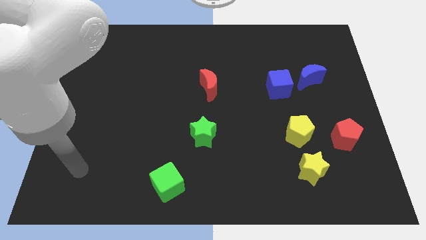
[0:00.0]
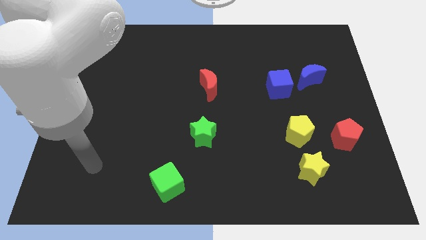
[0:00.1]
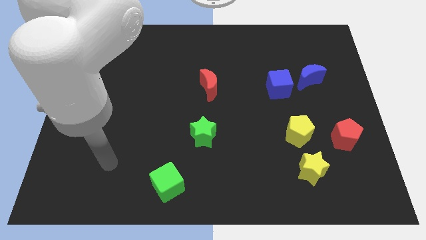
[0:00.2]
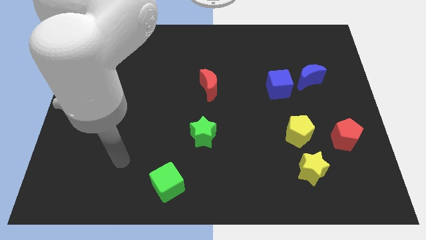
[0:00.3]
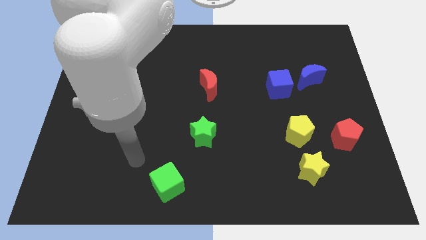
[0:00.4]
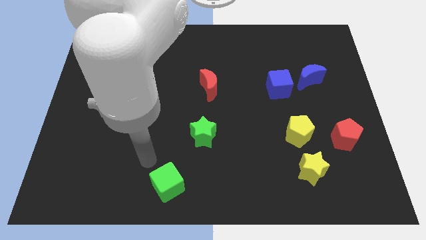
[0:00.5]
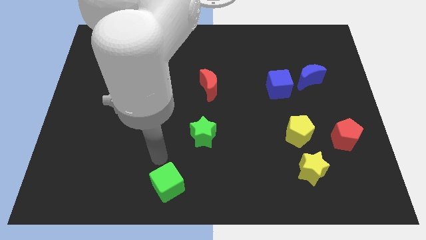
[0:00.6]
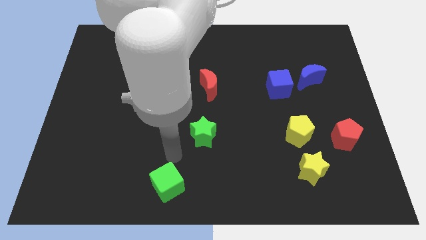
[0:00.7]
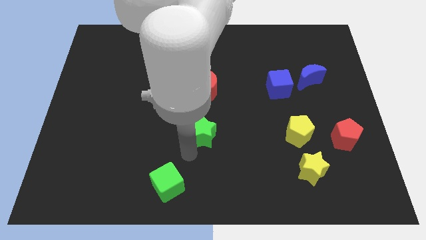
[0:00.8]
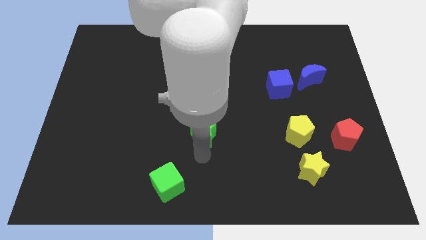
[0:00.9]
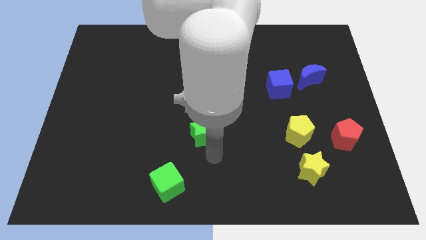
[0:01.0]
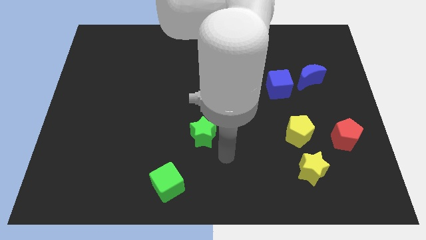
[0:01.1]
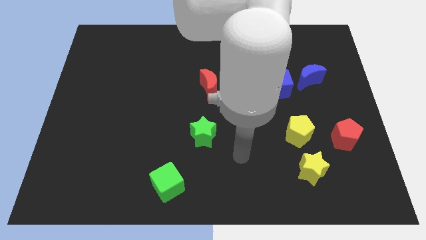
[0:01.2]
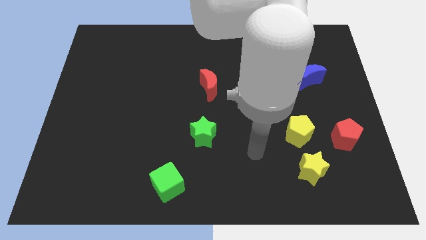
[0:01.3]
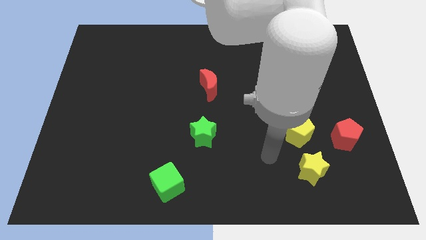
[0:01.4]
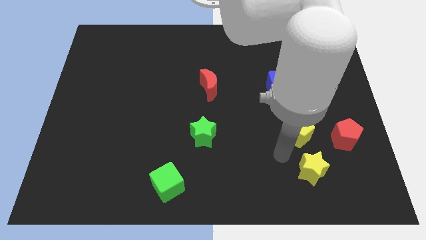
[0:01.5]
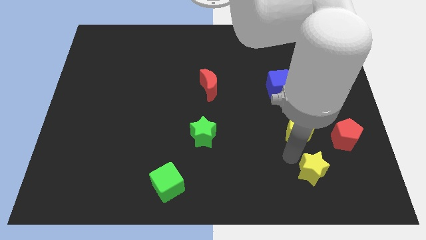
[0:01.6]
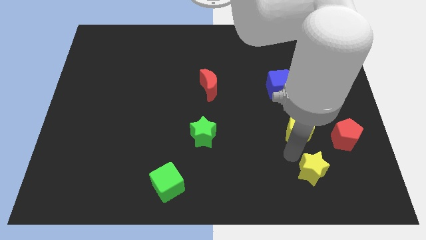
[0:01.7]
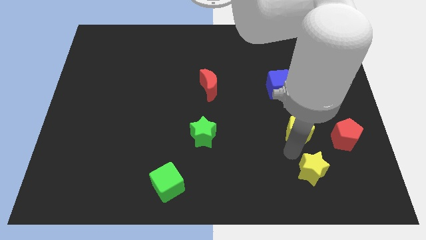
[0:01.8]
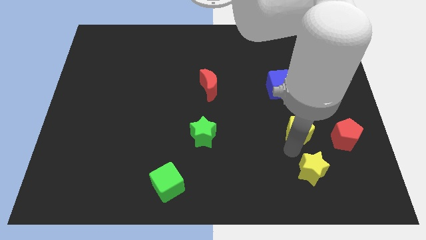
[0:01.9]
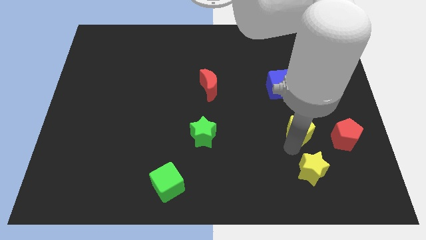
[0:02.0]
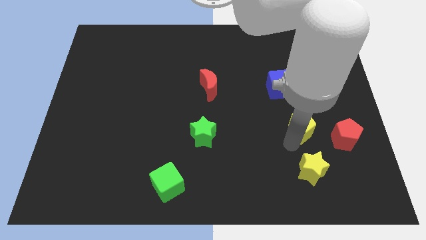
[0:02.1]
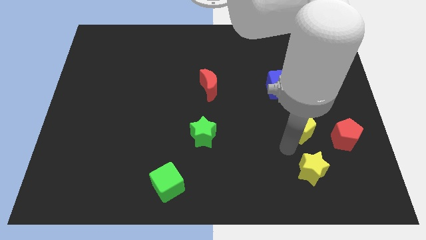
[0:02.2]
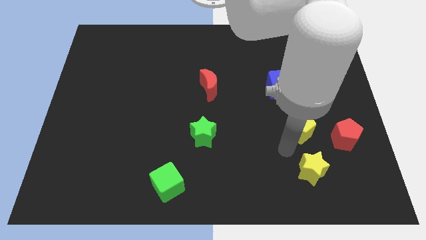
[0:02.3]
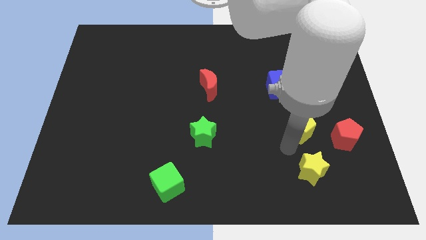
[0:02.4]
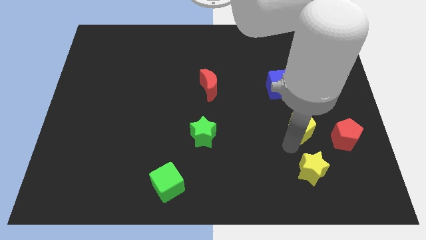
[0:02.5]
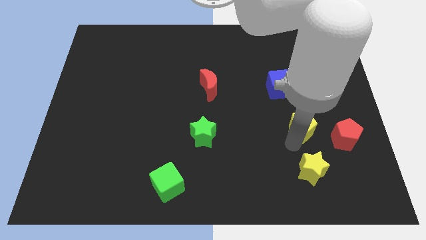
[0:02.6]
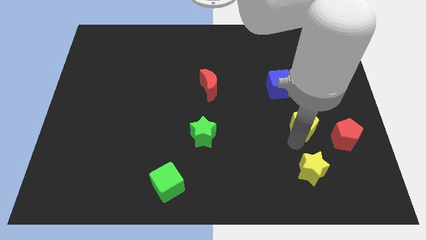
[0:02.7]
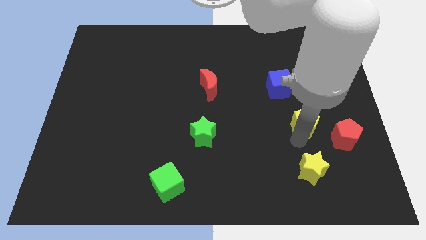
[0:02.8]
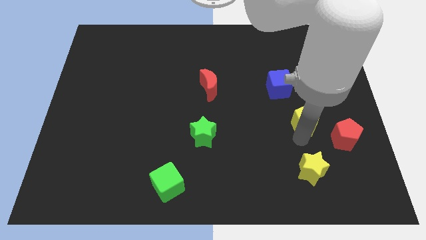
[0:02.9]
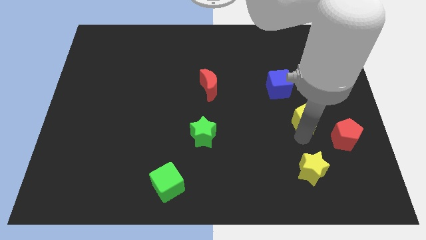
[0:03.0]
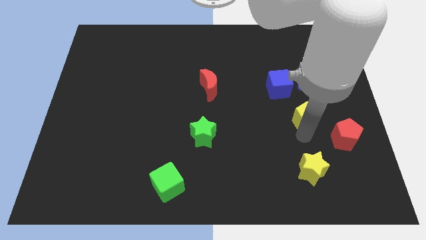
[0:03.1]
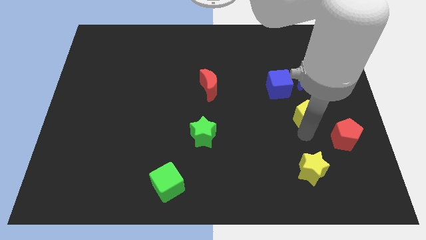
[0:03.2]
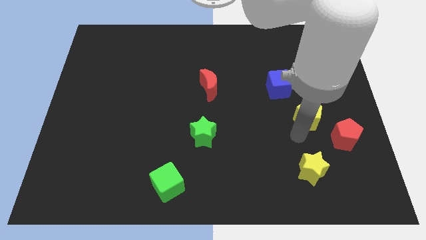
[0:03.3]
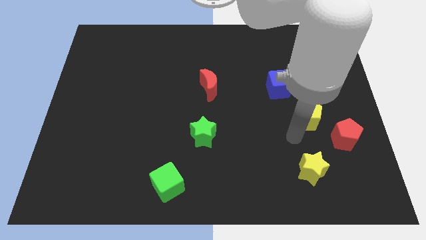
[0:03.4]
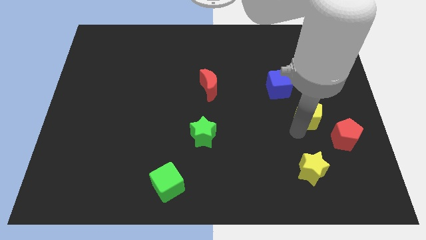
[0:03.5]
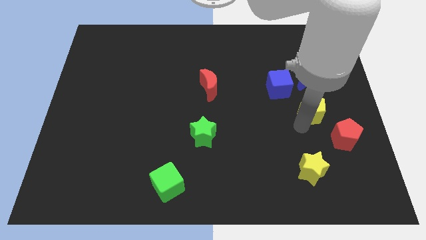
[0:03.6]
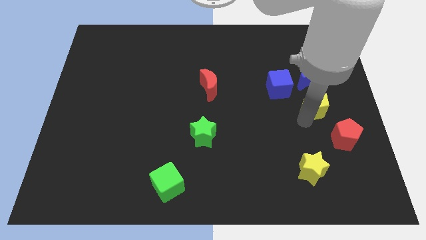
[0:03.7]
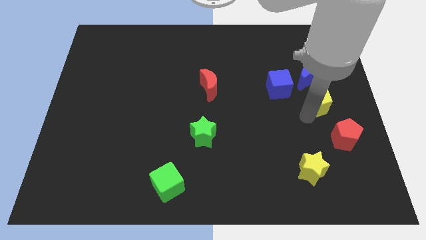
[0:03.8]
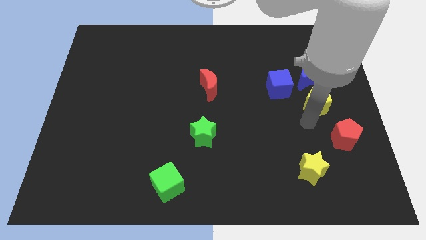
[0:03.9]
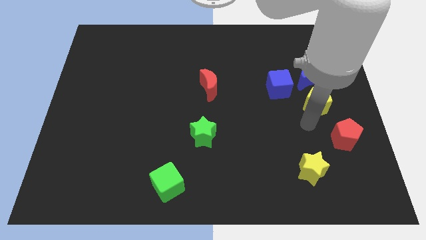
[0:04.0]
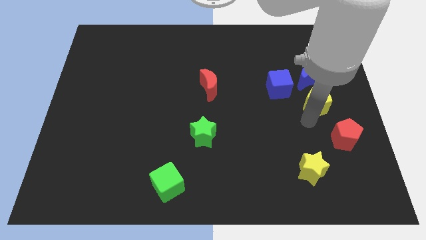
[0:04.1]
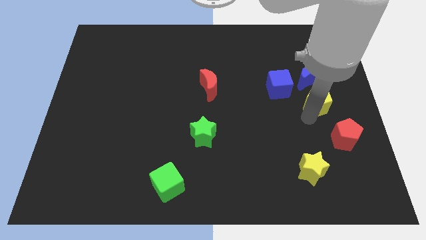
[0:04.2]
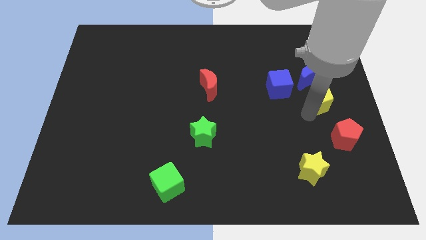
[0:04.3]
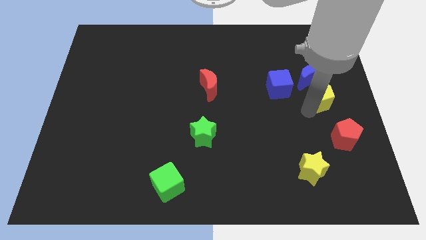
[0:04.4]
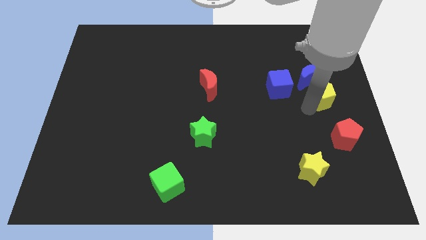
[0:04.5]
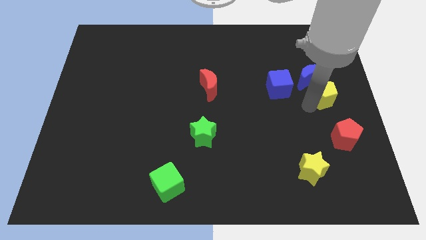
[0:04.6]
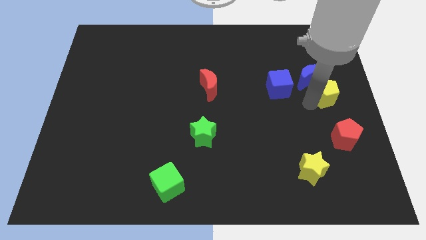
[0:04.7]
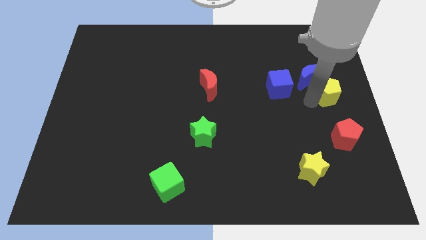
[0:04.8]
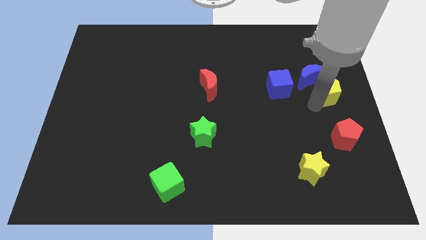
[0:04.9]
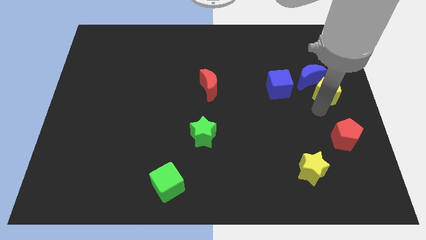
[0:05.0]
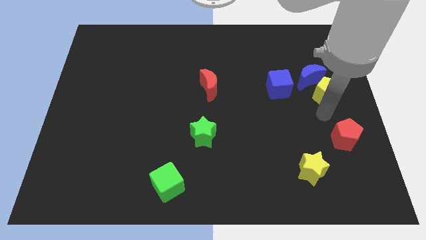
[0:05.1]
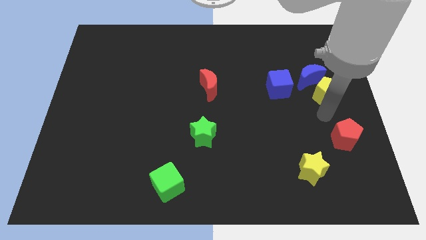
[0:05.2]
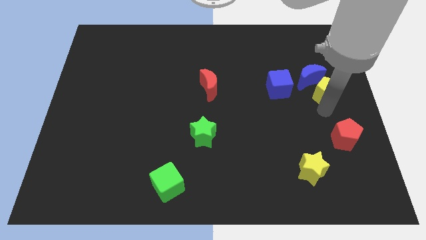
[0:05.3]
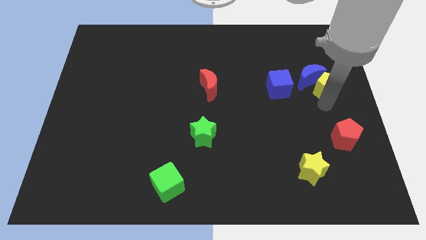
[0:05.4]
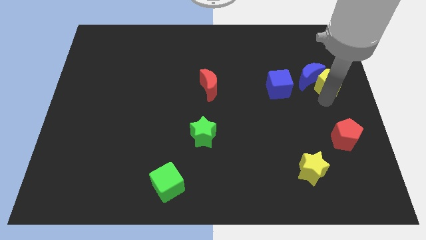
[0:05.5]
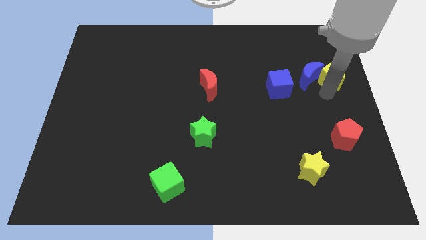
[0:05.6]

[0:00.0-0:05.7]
move the yellow pentagon to the top right side of the blue moon

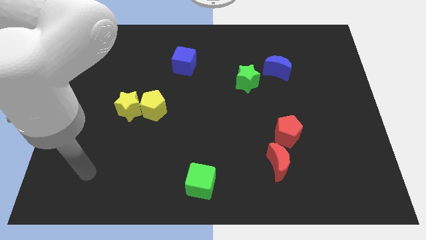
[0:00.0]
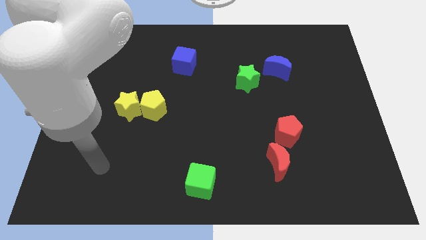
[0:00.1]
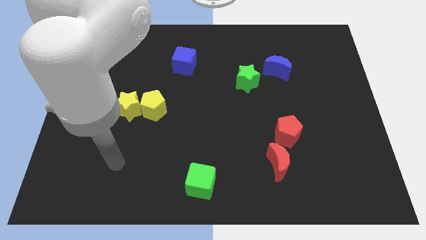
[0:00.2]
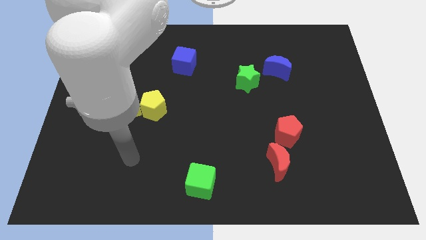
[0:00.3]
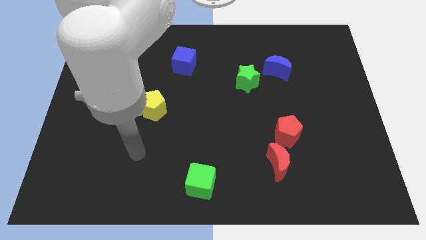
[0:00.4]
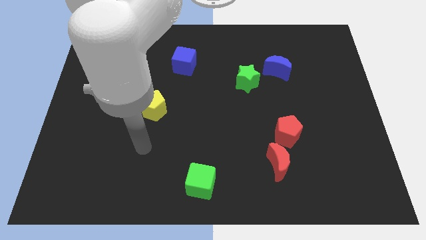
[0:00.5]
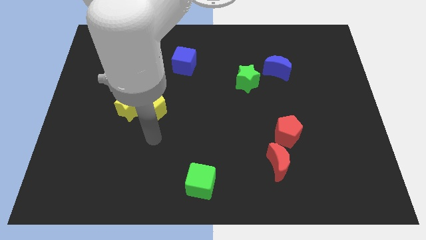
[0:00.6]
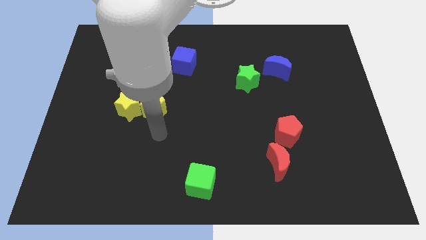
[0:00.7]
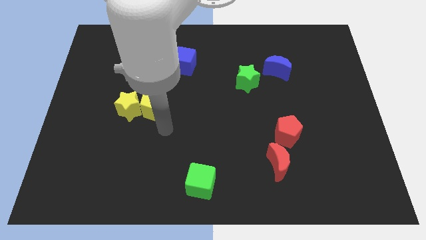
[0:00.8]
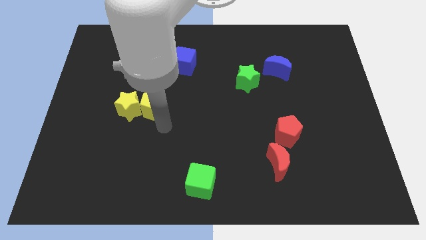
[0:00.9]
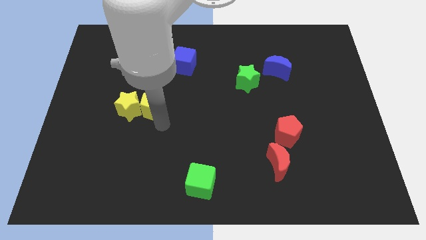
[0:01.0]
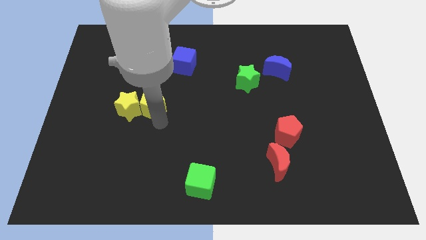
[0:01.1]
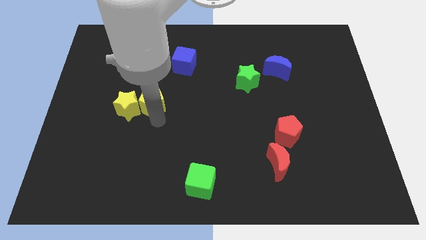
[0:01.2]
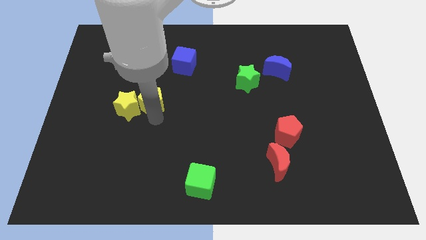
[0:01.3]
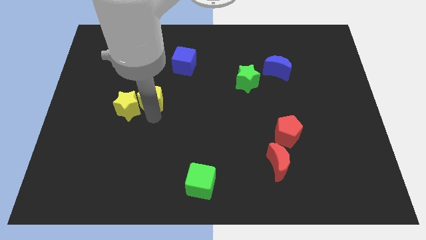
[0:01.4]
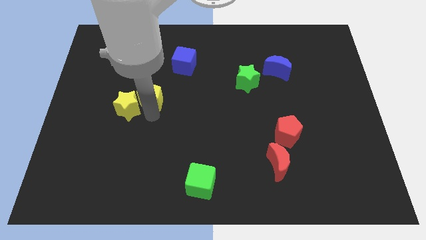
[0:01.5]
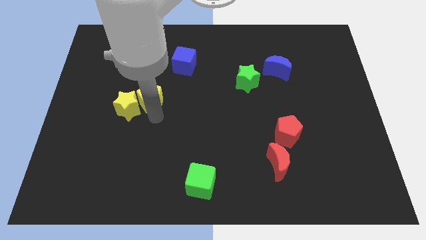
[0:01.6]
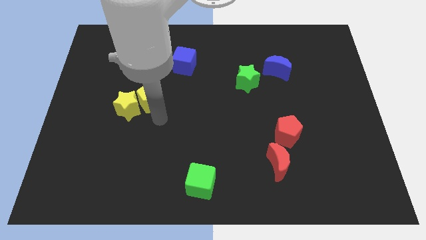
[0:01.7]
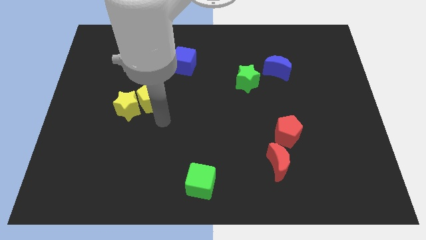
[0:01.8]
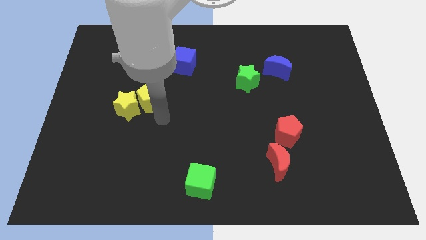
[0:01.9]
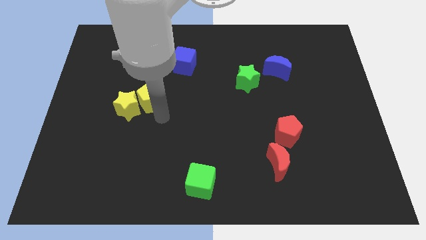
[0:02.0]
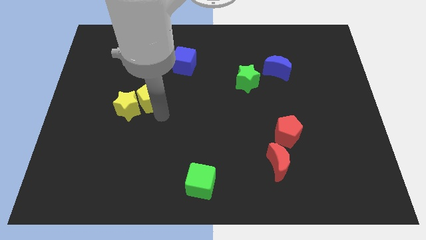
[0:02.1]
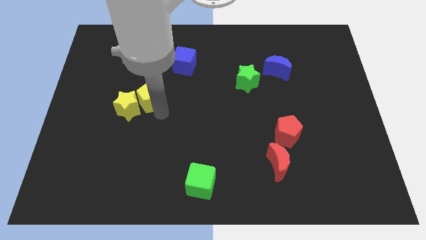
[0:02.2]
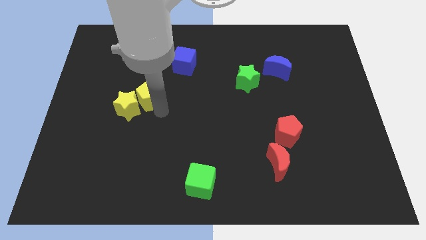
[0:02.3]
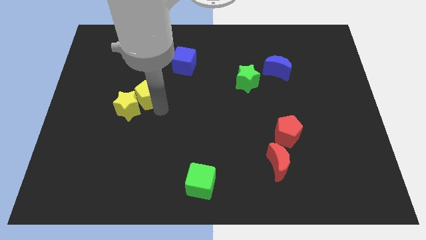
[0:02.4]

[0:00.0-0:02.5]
push the yellow pentagon above the yellow star
